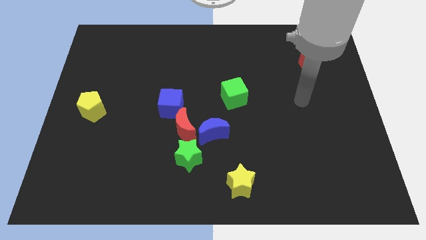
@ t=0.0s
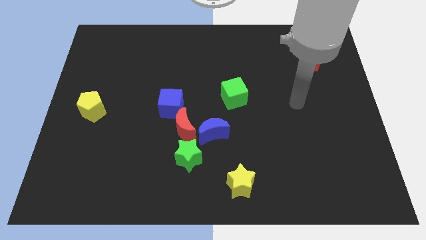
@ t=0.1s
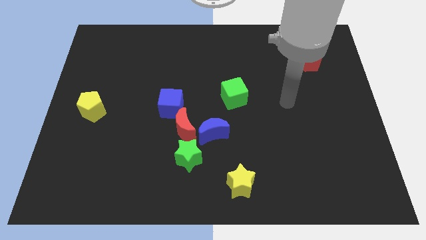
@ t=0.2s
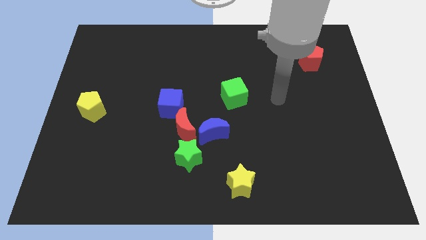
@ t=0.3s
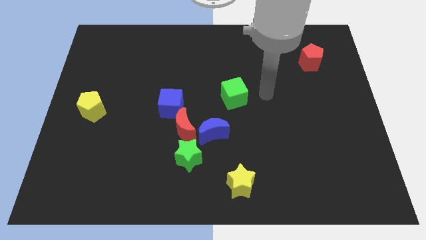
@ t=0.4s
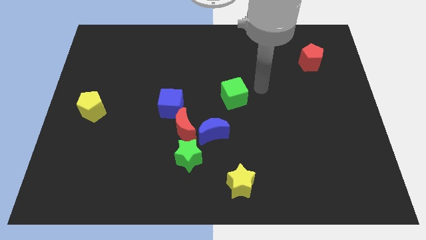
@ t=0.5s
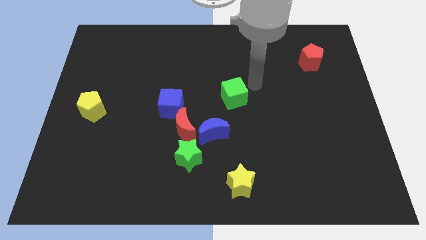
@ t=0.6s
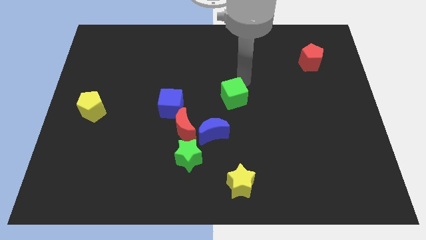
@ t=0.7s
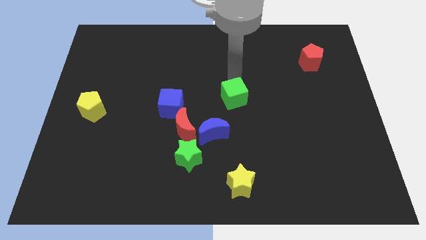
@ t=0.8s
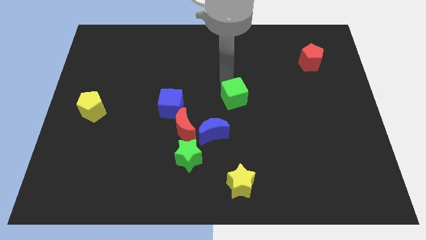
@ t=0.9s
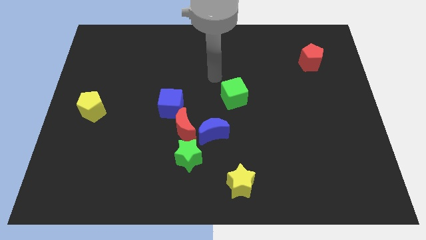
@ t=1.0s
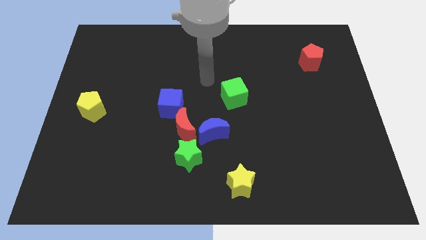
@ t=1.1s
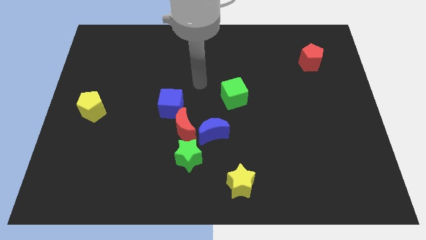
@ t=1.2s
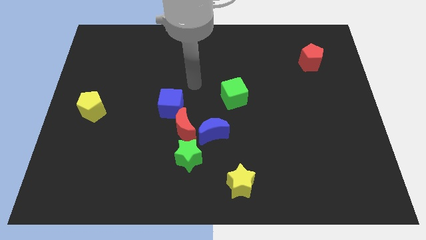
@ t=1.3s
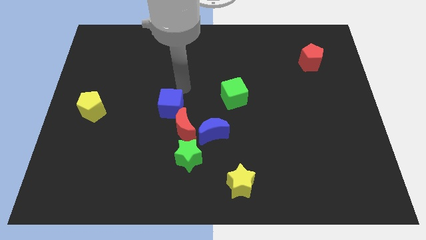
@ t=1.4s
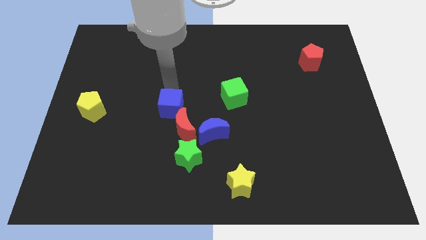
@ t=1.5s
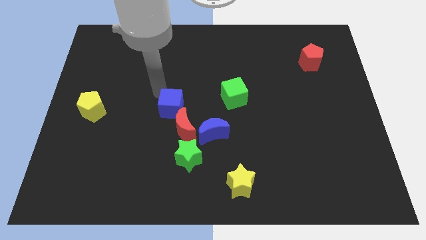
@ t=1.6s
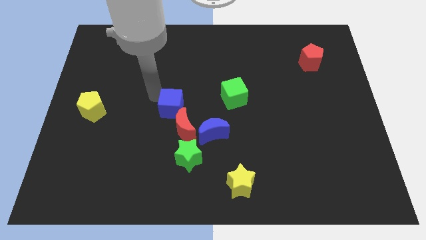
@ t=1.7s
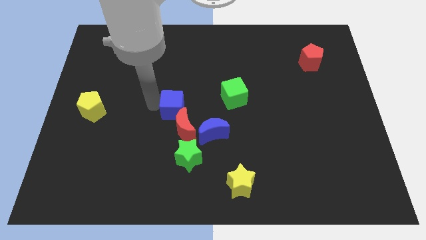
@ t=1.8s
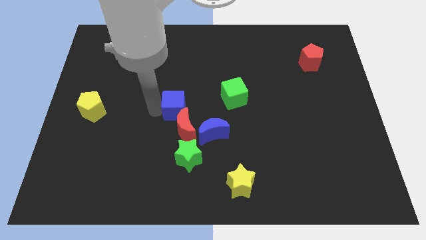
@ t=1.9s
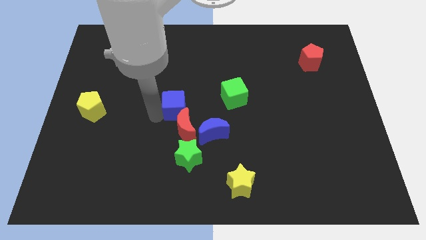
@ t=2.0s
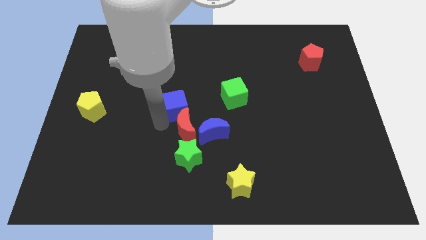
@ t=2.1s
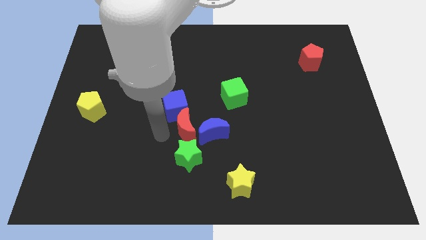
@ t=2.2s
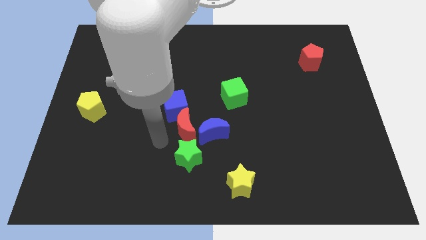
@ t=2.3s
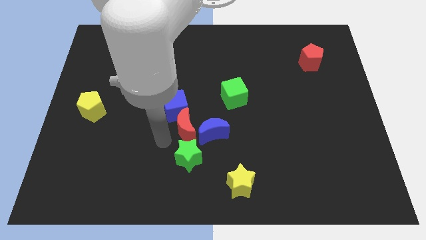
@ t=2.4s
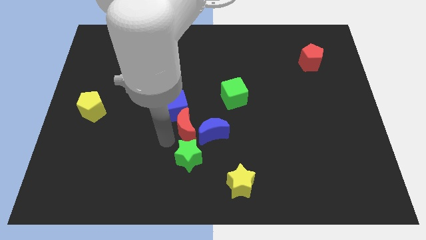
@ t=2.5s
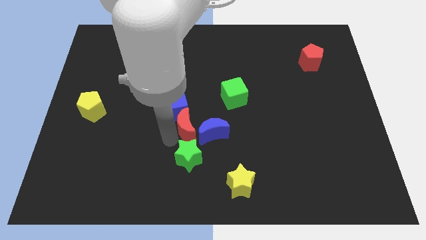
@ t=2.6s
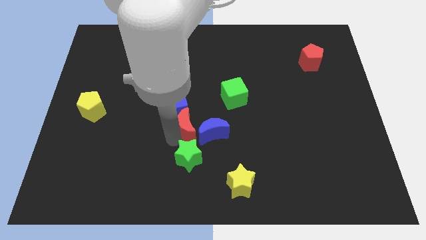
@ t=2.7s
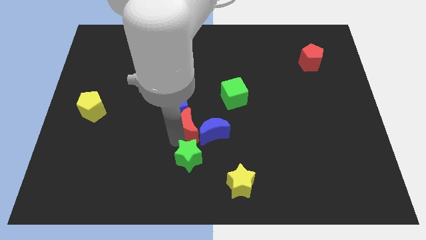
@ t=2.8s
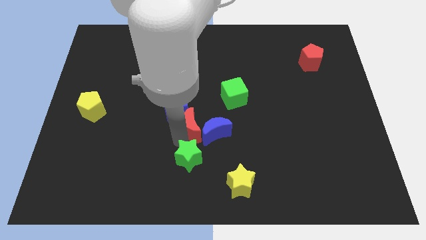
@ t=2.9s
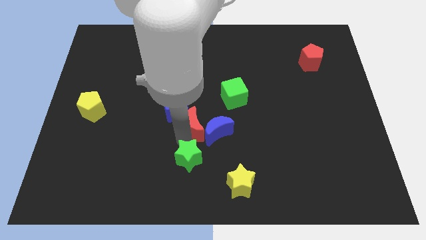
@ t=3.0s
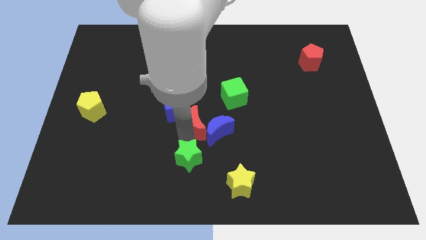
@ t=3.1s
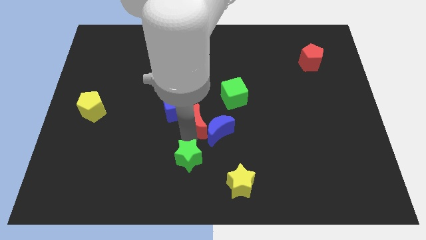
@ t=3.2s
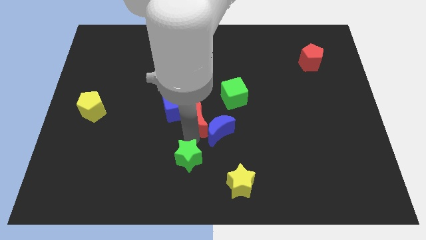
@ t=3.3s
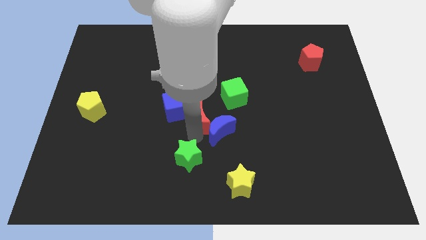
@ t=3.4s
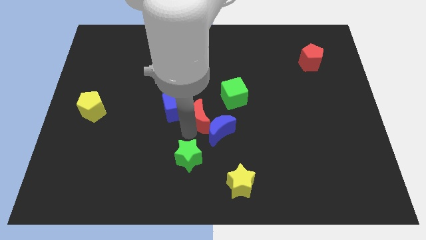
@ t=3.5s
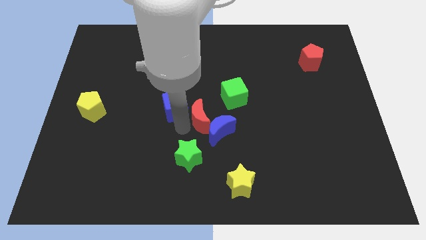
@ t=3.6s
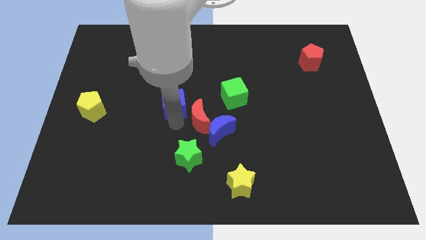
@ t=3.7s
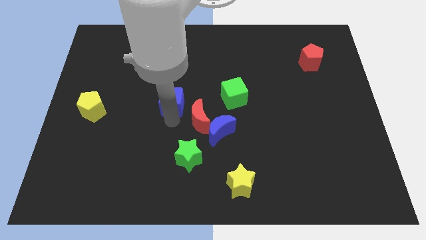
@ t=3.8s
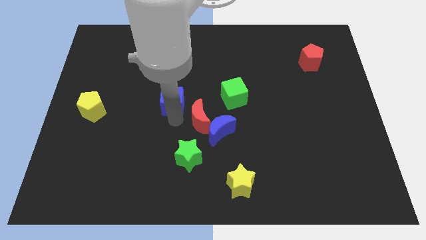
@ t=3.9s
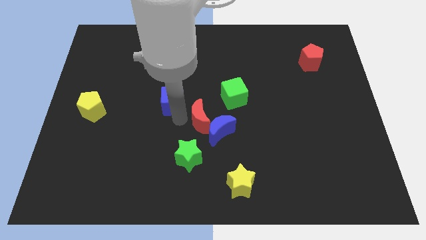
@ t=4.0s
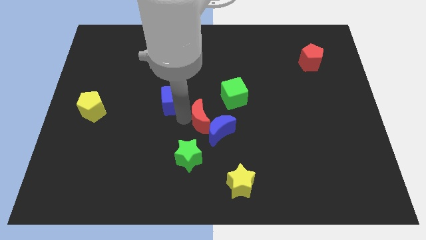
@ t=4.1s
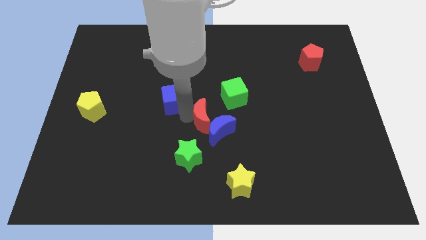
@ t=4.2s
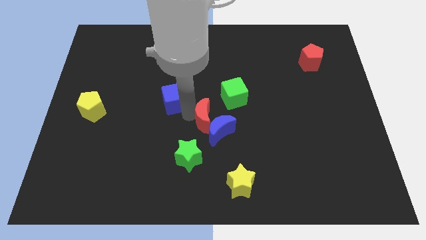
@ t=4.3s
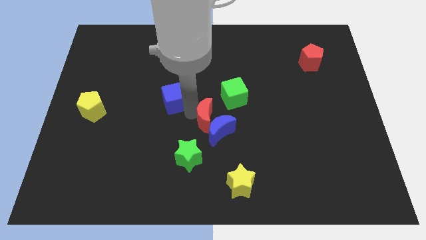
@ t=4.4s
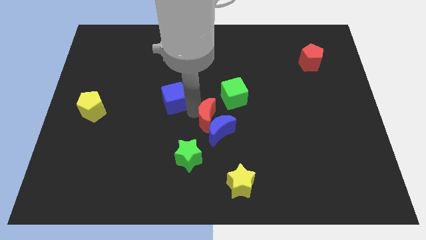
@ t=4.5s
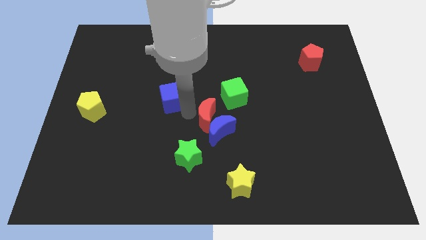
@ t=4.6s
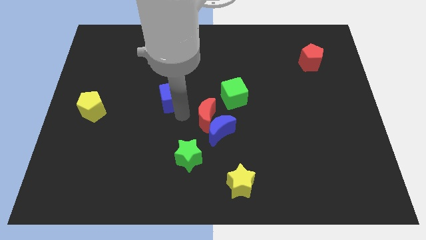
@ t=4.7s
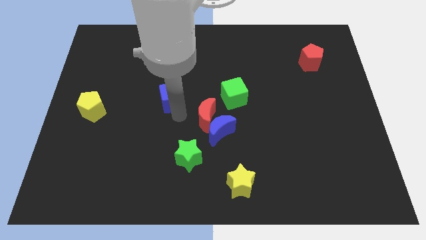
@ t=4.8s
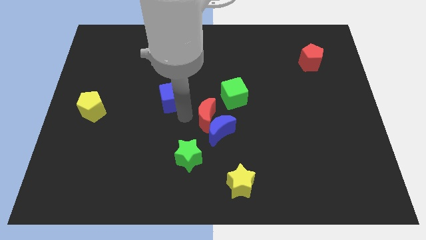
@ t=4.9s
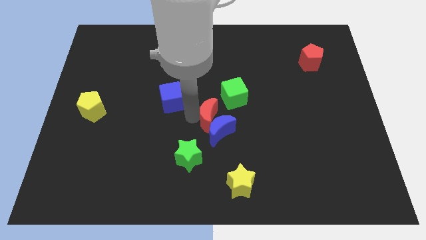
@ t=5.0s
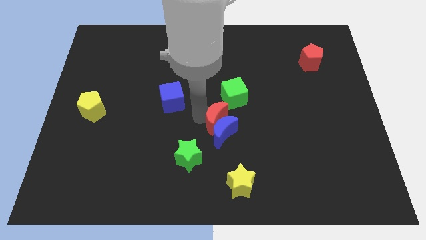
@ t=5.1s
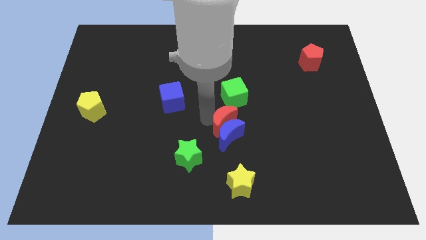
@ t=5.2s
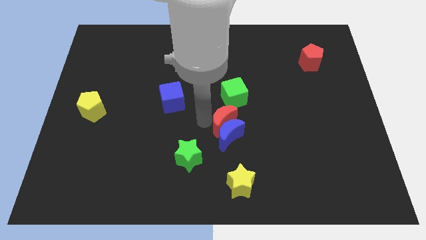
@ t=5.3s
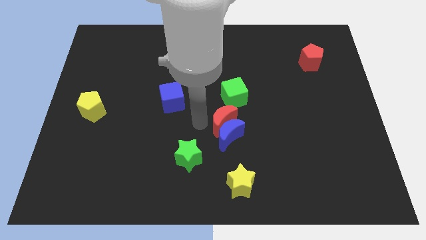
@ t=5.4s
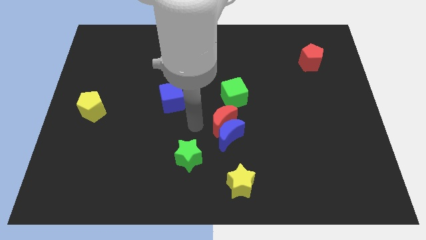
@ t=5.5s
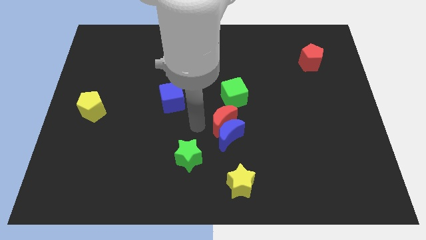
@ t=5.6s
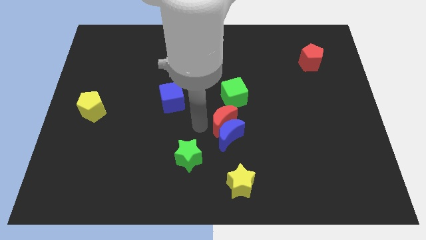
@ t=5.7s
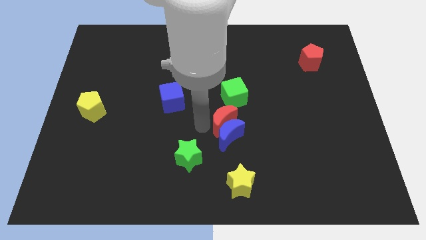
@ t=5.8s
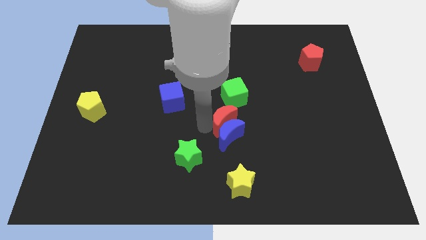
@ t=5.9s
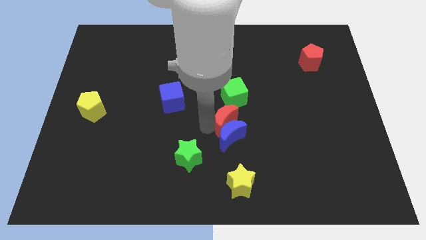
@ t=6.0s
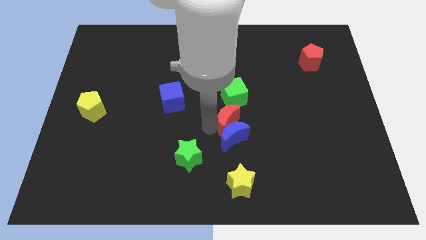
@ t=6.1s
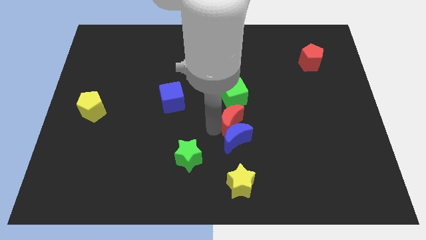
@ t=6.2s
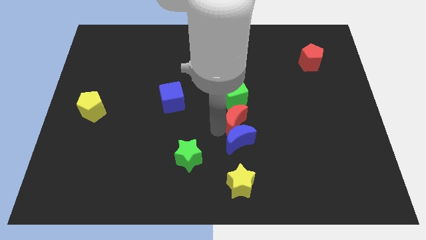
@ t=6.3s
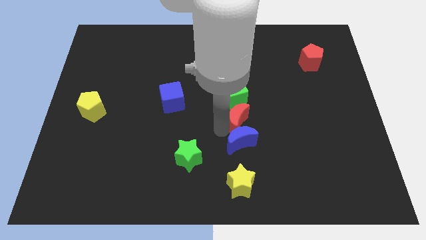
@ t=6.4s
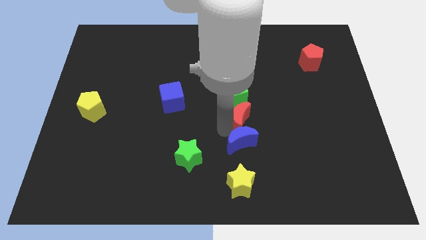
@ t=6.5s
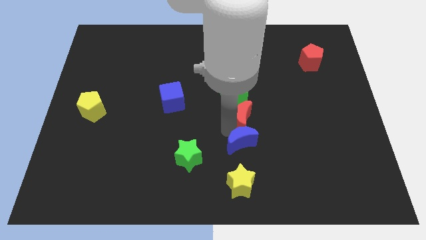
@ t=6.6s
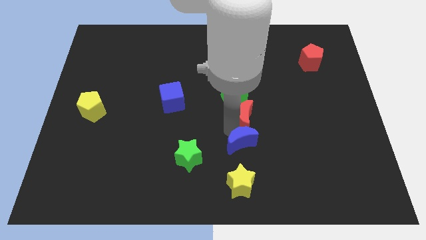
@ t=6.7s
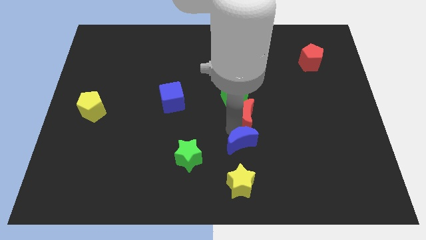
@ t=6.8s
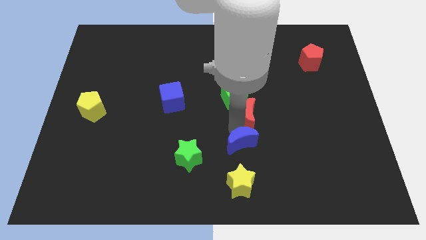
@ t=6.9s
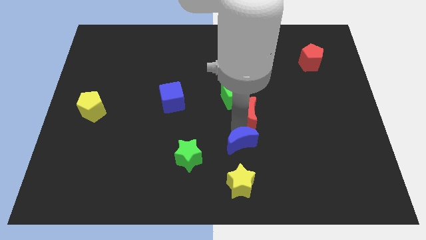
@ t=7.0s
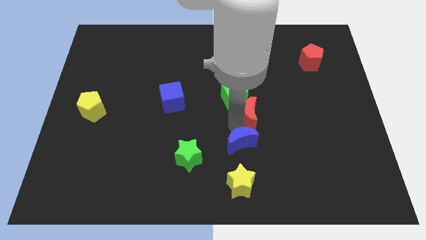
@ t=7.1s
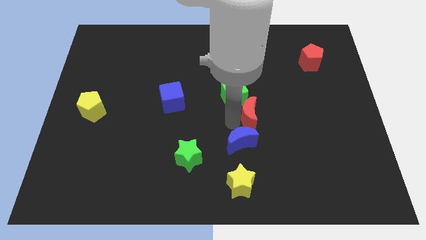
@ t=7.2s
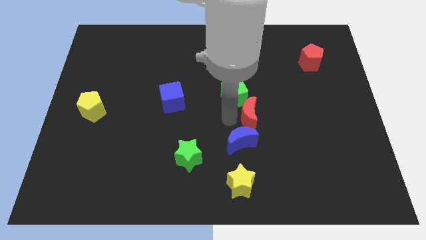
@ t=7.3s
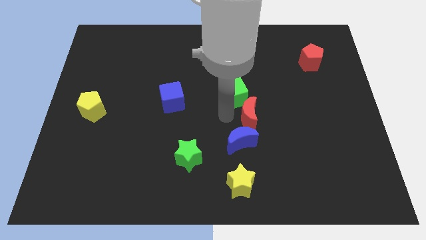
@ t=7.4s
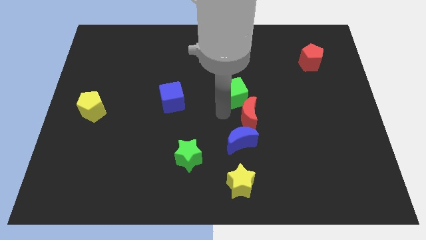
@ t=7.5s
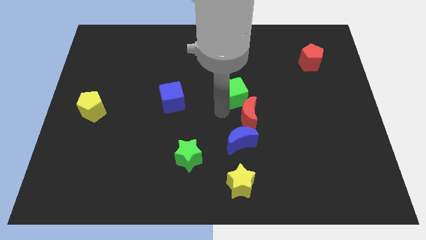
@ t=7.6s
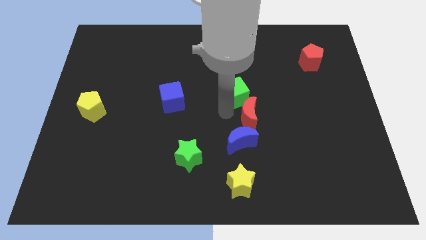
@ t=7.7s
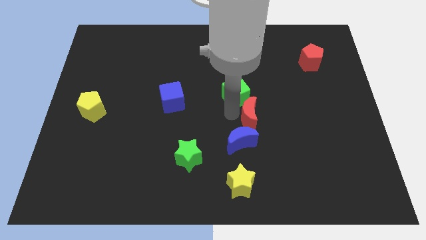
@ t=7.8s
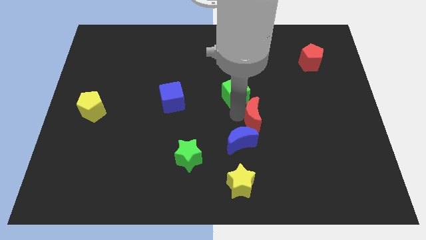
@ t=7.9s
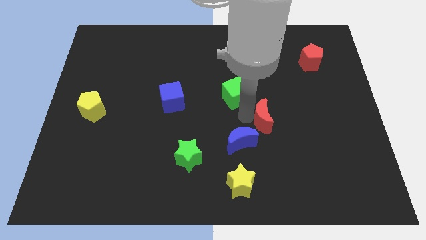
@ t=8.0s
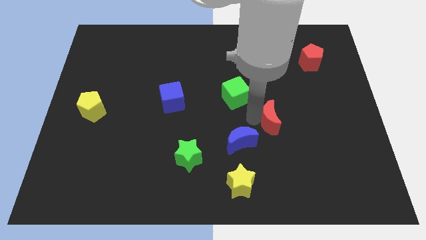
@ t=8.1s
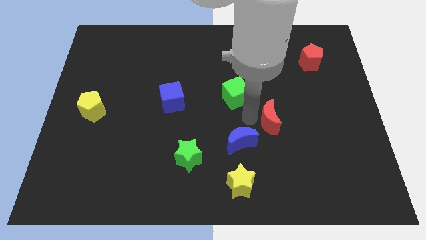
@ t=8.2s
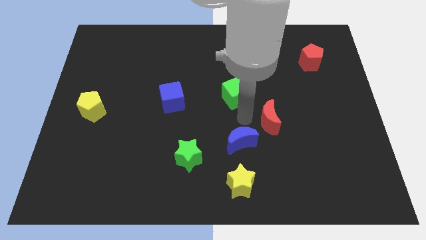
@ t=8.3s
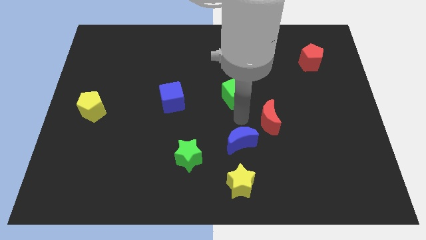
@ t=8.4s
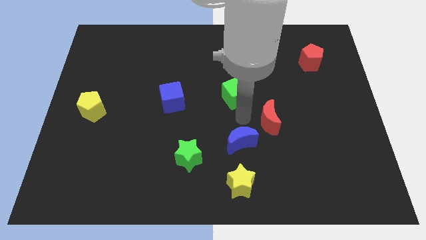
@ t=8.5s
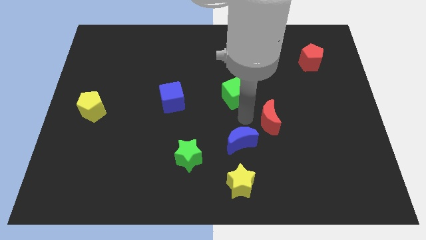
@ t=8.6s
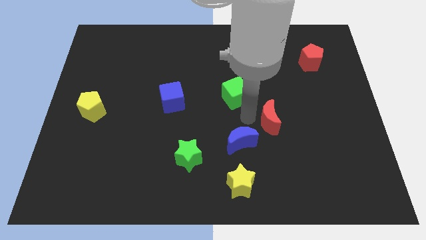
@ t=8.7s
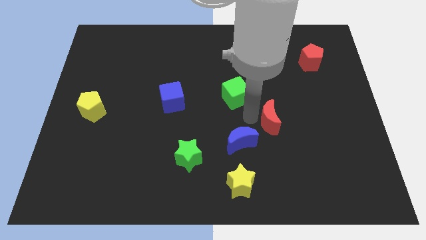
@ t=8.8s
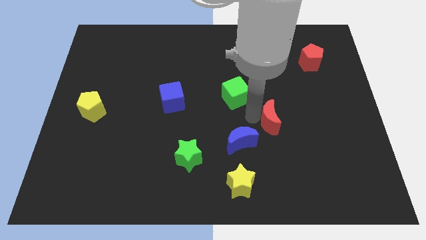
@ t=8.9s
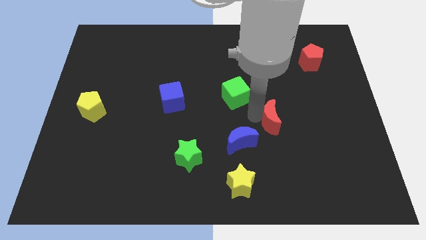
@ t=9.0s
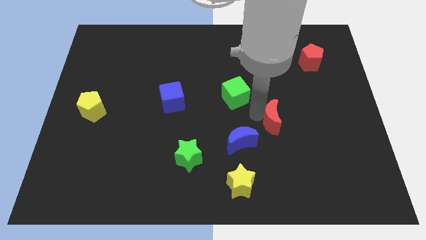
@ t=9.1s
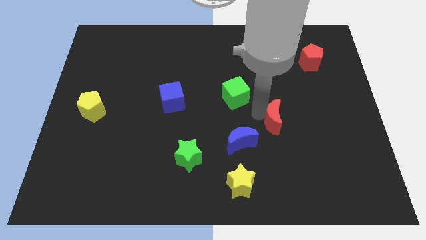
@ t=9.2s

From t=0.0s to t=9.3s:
push the red moon to the right
